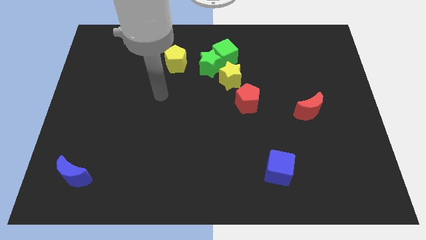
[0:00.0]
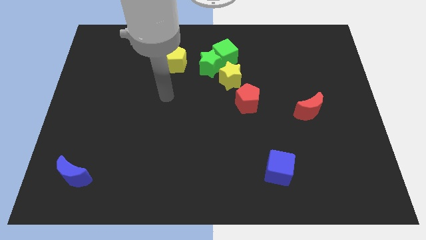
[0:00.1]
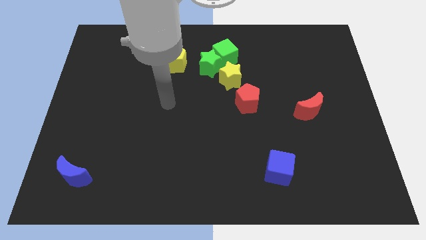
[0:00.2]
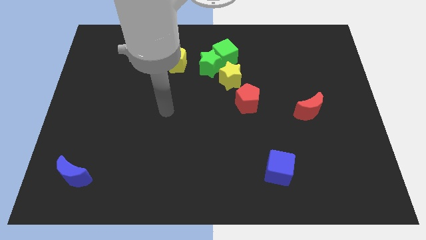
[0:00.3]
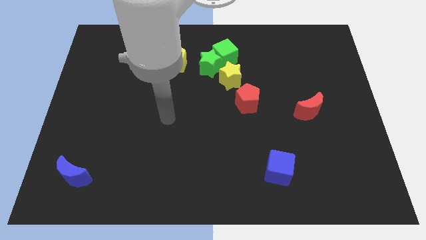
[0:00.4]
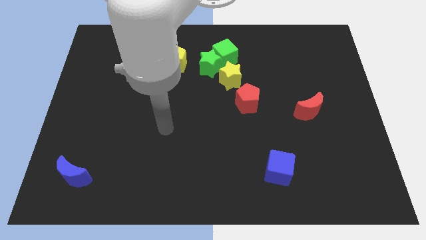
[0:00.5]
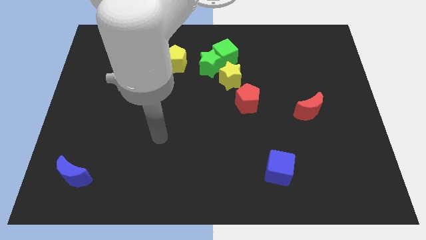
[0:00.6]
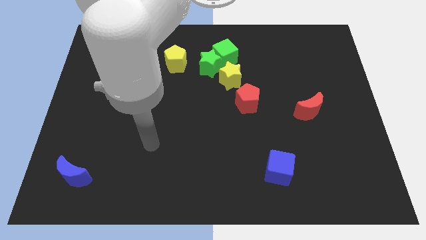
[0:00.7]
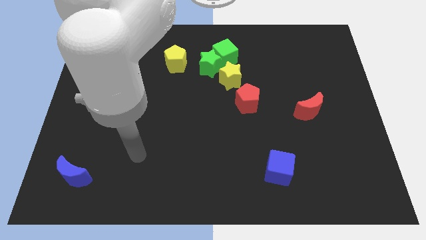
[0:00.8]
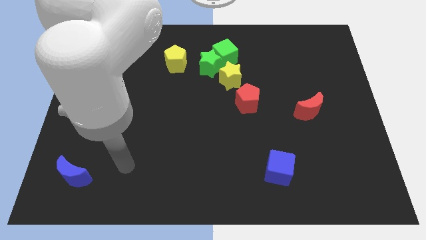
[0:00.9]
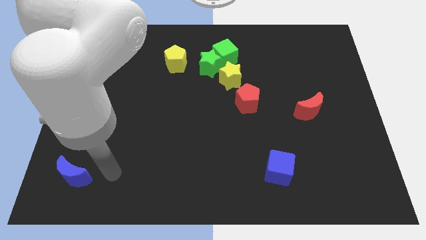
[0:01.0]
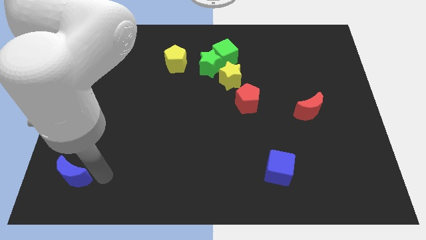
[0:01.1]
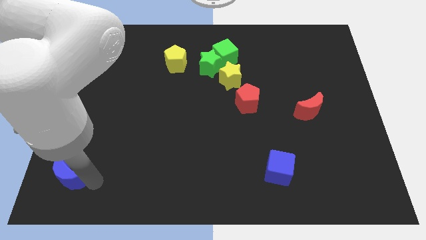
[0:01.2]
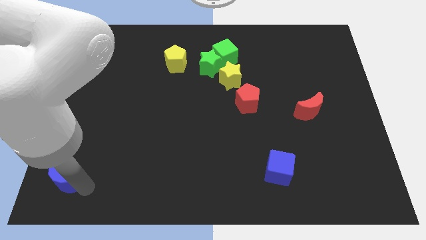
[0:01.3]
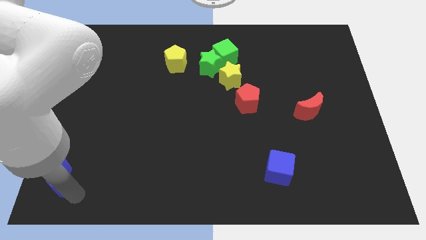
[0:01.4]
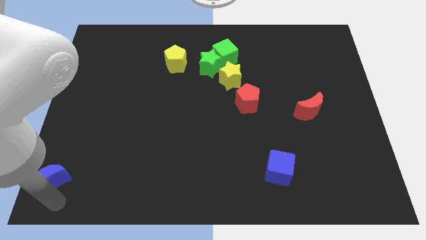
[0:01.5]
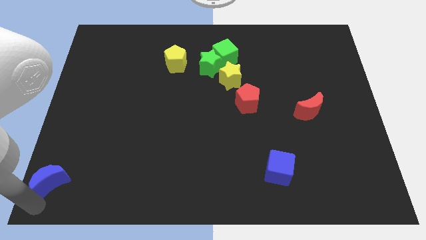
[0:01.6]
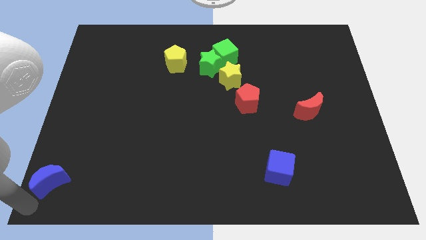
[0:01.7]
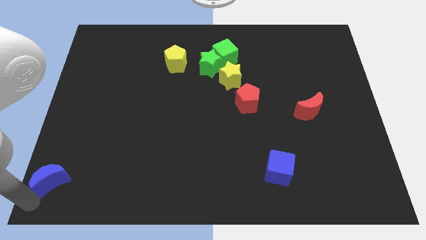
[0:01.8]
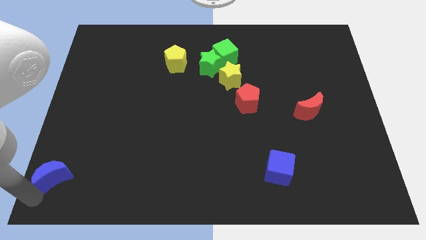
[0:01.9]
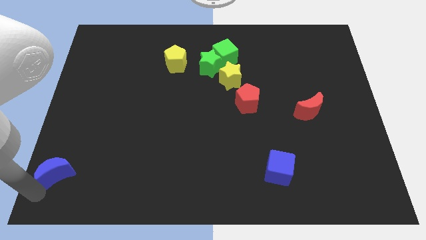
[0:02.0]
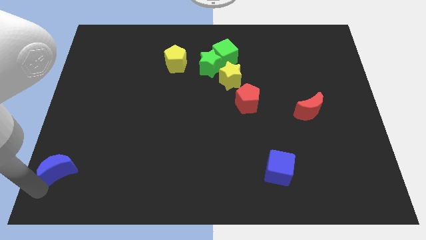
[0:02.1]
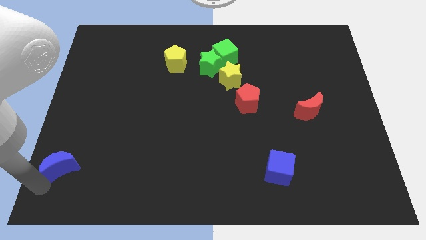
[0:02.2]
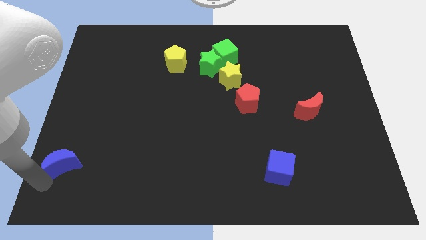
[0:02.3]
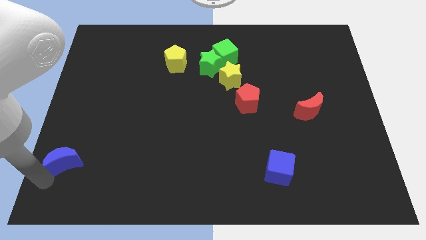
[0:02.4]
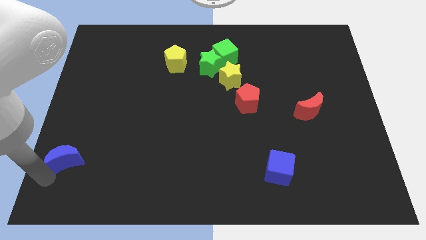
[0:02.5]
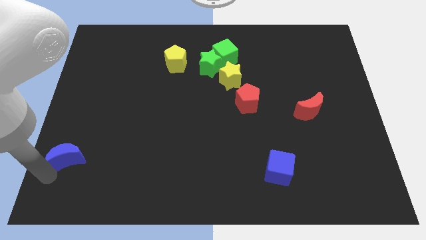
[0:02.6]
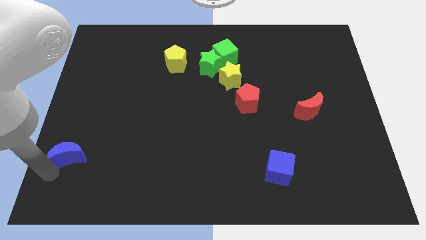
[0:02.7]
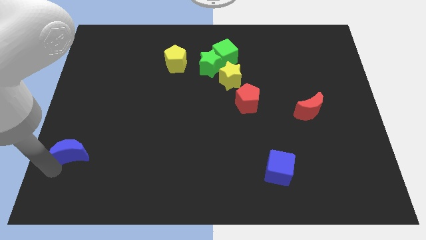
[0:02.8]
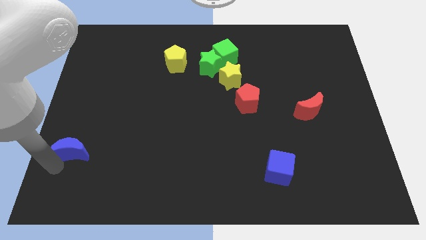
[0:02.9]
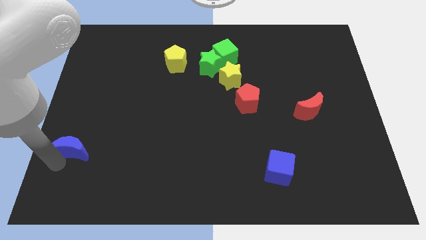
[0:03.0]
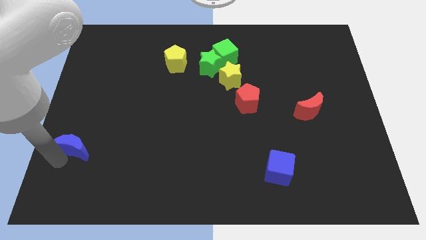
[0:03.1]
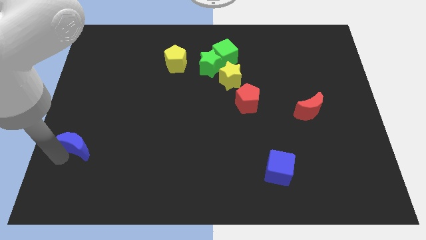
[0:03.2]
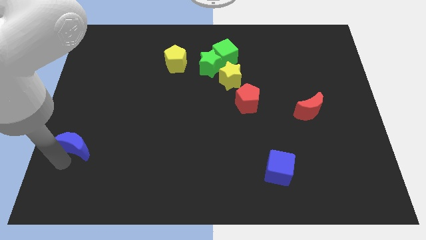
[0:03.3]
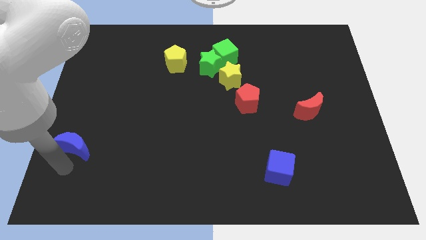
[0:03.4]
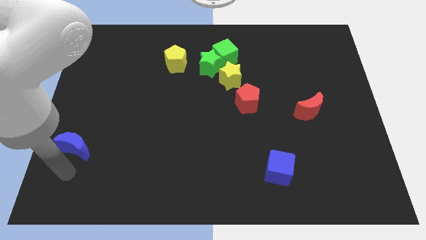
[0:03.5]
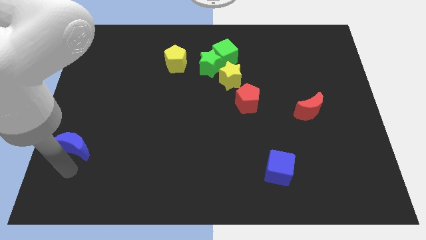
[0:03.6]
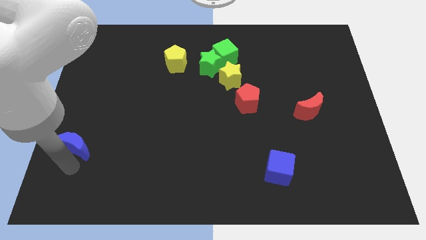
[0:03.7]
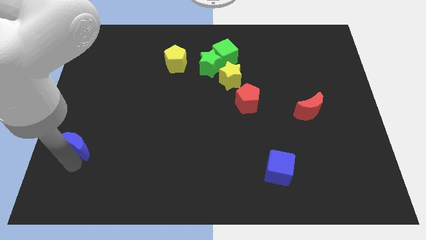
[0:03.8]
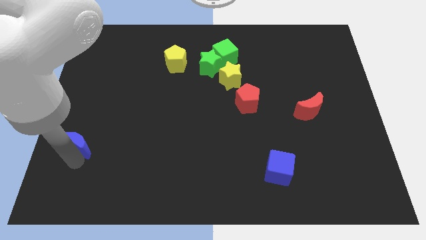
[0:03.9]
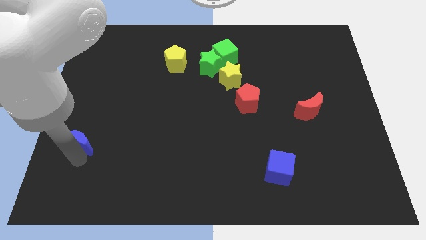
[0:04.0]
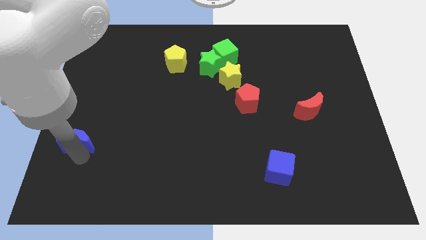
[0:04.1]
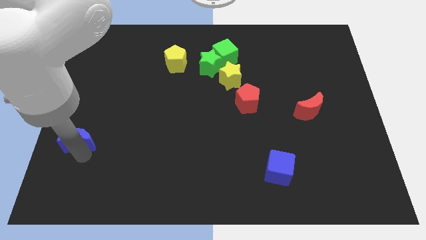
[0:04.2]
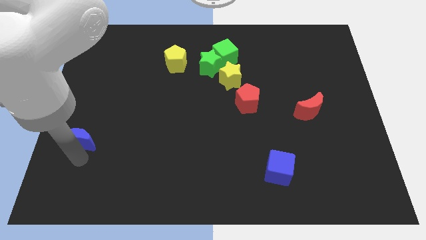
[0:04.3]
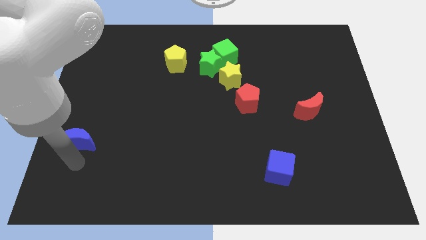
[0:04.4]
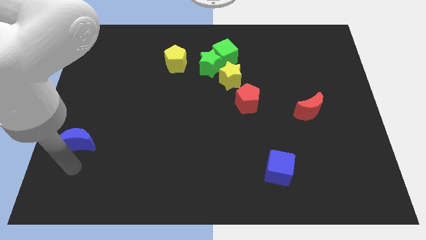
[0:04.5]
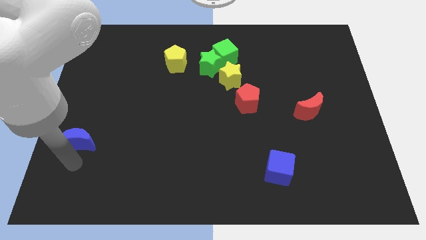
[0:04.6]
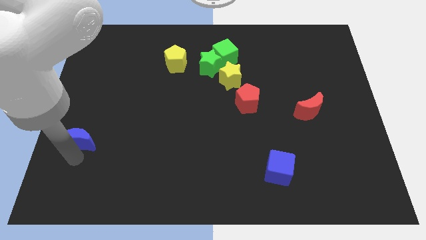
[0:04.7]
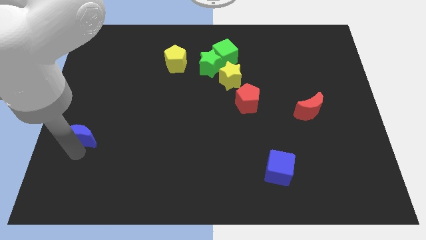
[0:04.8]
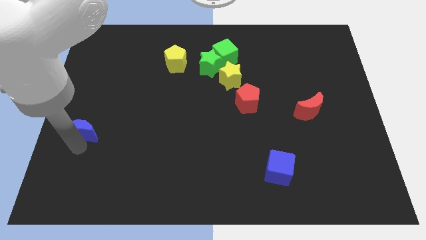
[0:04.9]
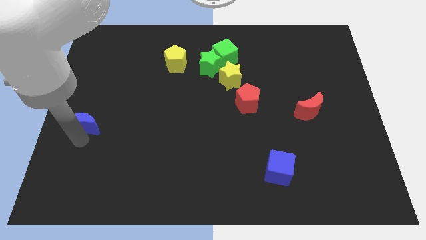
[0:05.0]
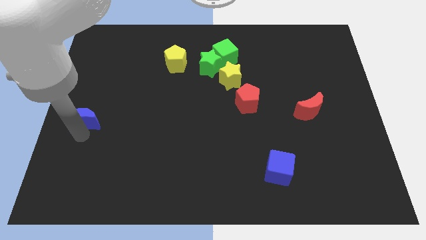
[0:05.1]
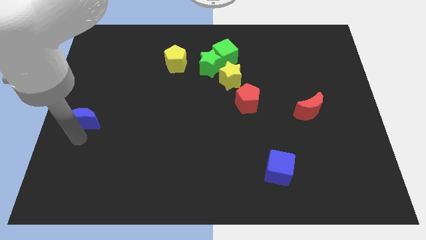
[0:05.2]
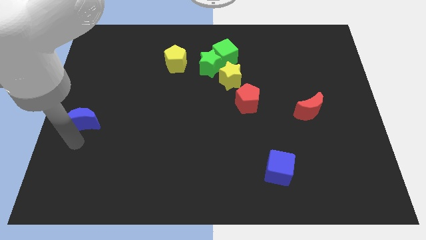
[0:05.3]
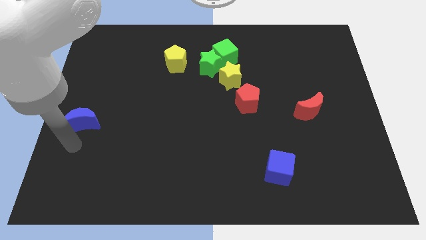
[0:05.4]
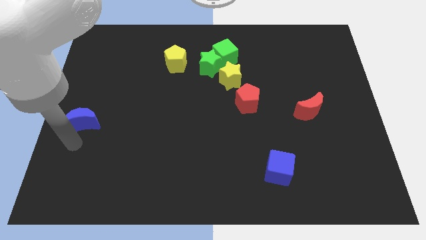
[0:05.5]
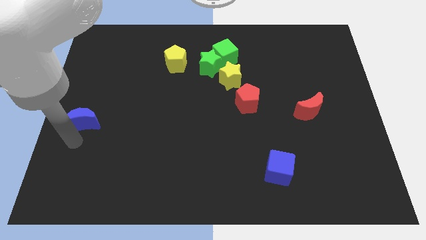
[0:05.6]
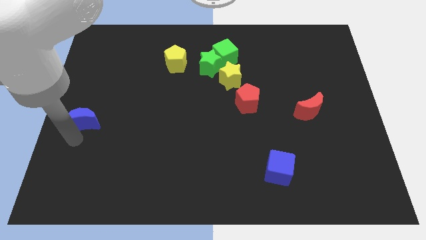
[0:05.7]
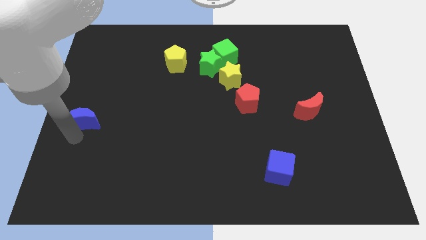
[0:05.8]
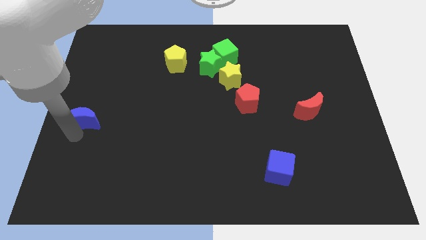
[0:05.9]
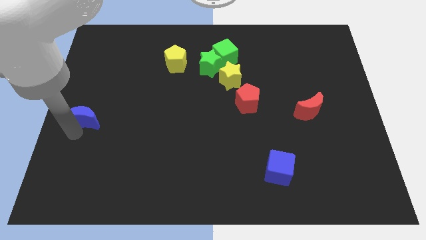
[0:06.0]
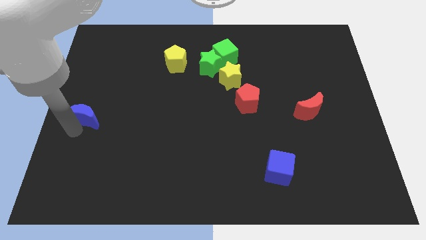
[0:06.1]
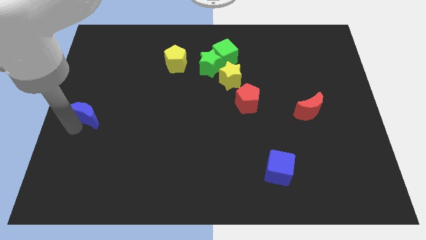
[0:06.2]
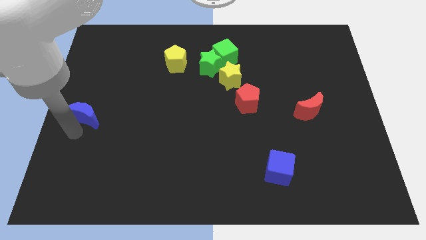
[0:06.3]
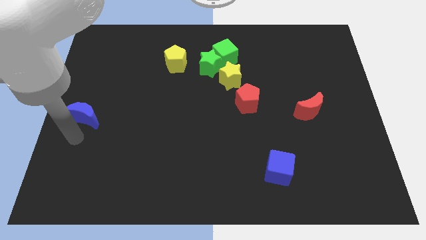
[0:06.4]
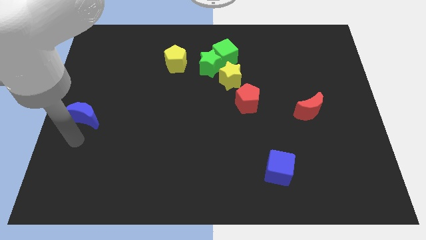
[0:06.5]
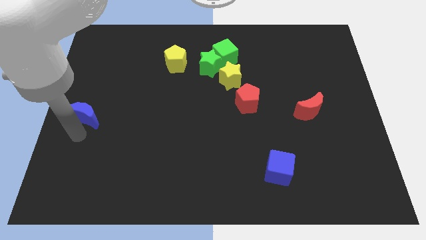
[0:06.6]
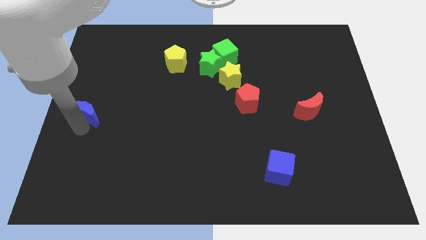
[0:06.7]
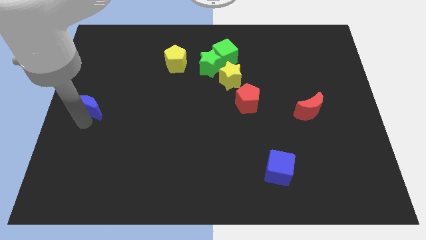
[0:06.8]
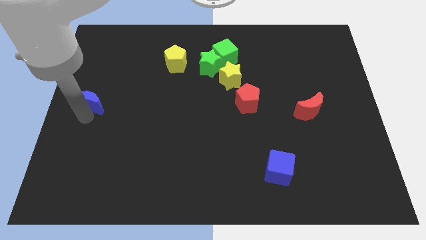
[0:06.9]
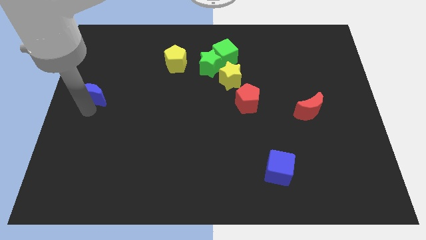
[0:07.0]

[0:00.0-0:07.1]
push the blue moon upwards

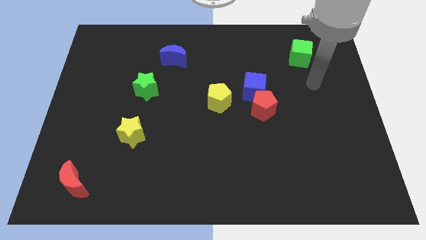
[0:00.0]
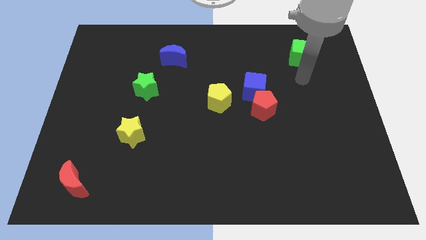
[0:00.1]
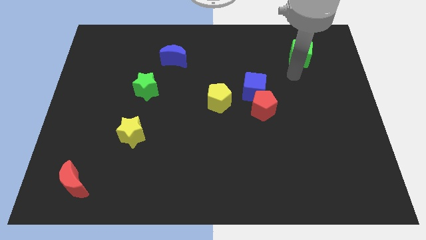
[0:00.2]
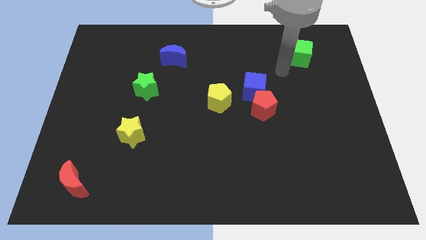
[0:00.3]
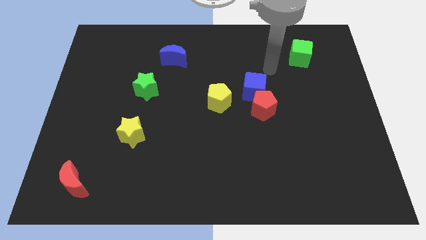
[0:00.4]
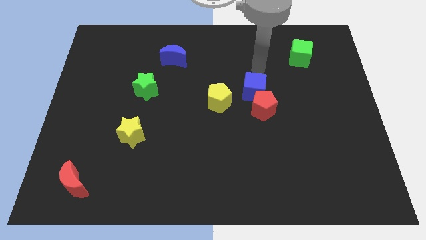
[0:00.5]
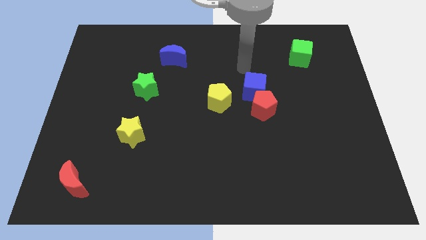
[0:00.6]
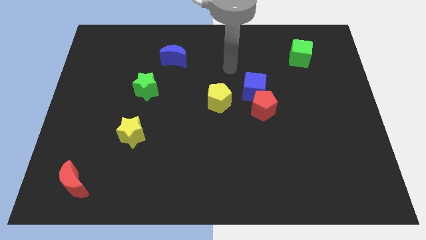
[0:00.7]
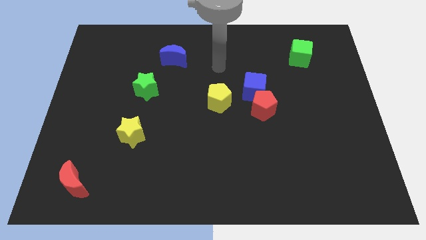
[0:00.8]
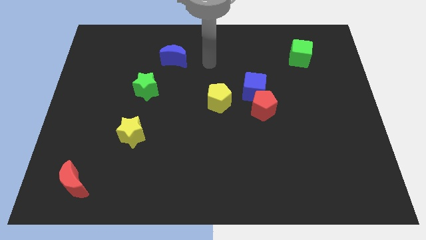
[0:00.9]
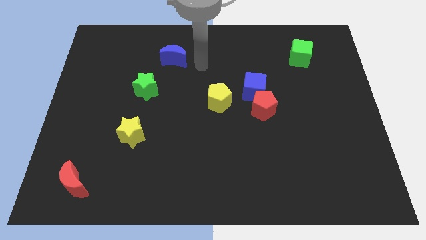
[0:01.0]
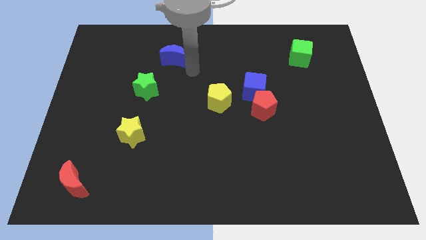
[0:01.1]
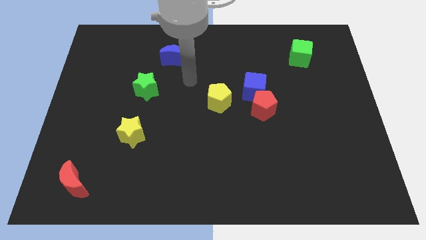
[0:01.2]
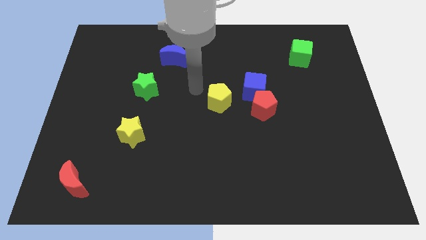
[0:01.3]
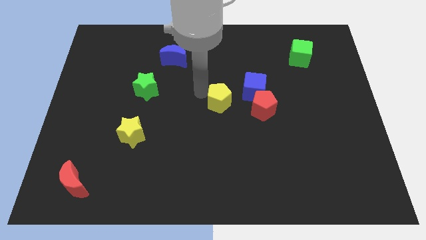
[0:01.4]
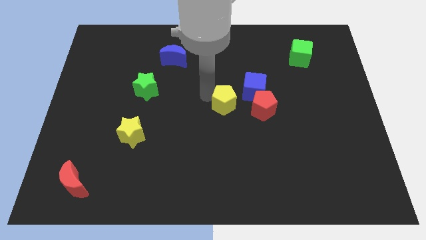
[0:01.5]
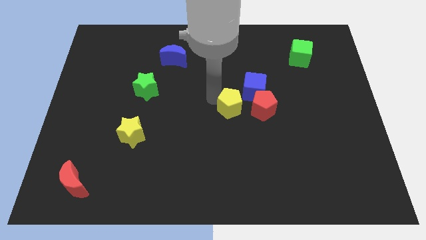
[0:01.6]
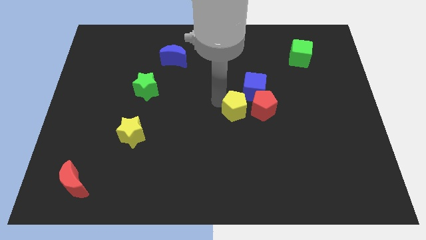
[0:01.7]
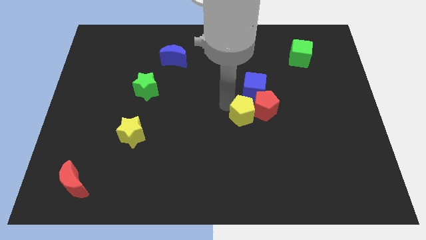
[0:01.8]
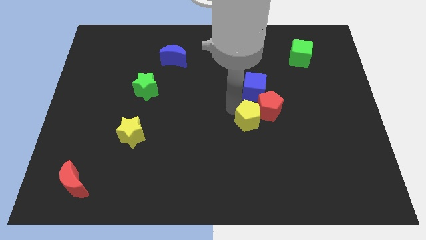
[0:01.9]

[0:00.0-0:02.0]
push the yellow pentagon slightly diagonally downwards and right
